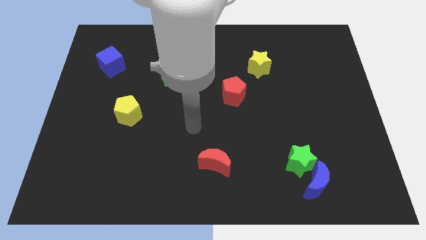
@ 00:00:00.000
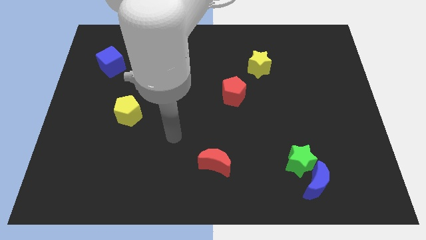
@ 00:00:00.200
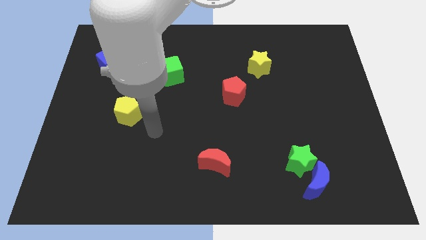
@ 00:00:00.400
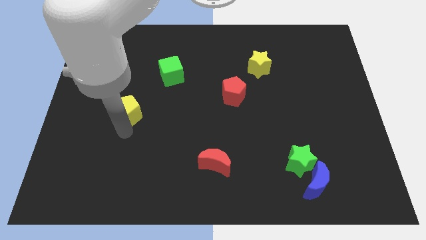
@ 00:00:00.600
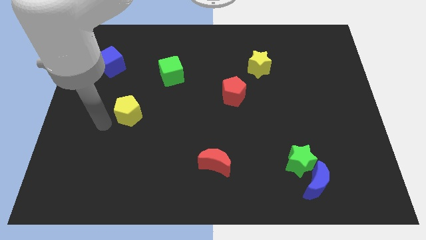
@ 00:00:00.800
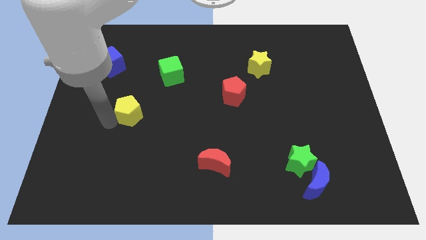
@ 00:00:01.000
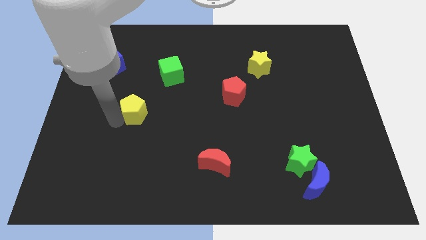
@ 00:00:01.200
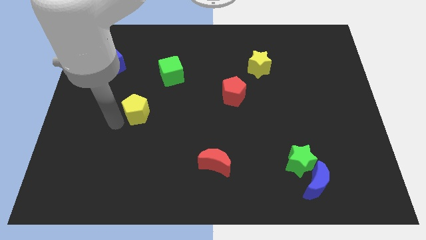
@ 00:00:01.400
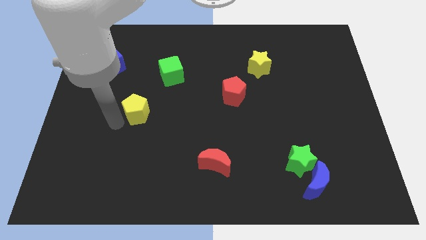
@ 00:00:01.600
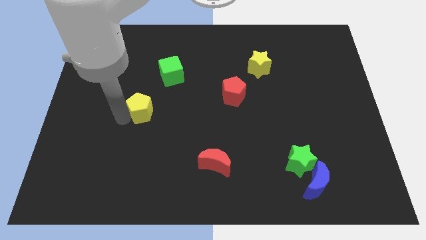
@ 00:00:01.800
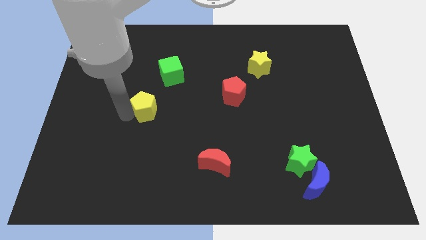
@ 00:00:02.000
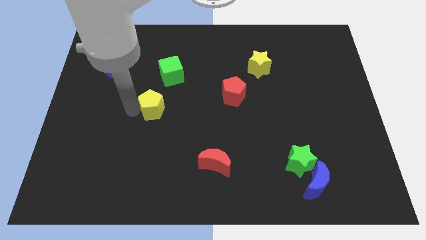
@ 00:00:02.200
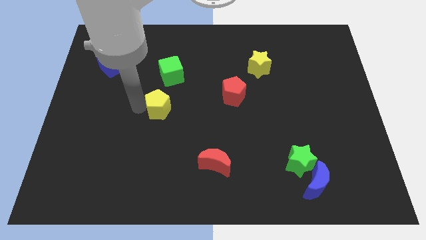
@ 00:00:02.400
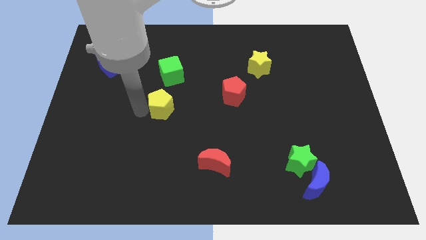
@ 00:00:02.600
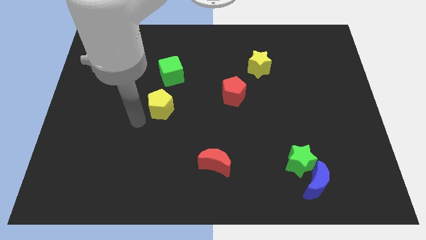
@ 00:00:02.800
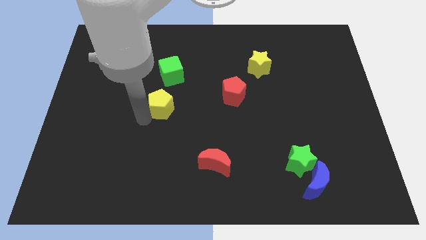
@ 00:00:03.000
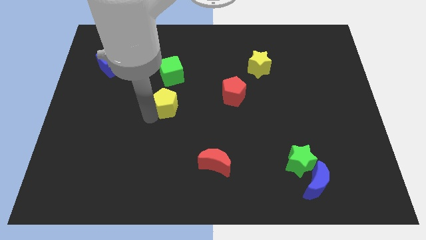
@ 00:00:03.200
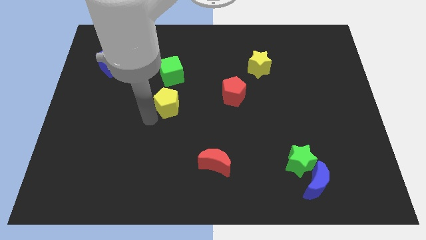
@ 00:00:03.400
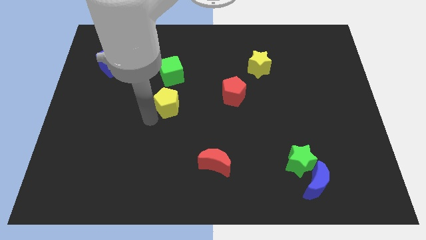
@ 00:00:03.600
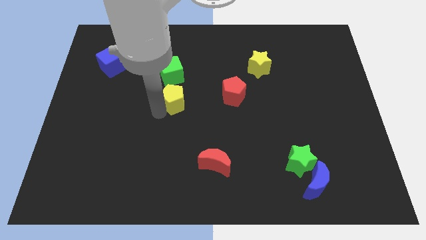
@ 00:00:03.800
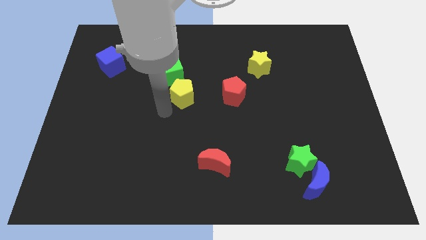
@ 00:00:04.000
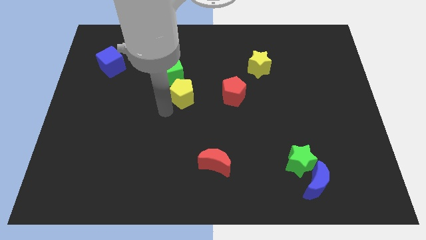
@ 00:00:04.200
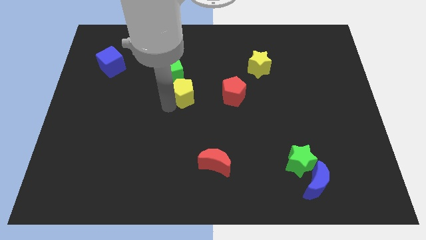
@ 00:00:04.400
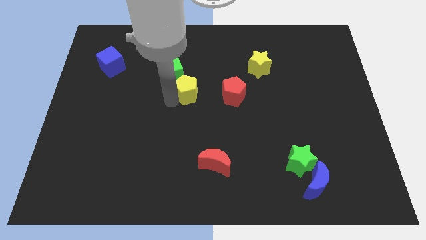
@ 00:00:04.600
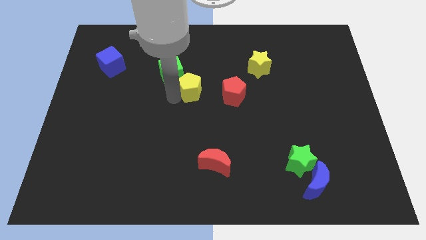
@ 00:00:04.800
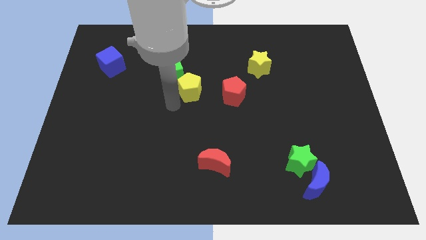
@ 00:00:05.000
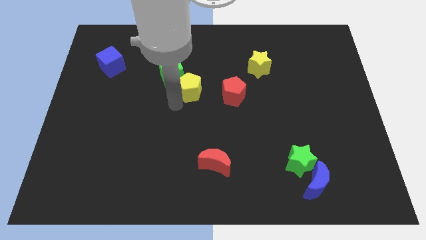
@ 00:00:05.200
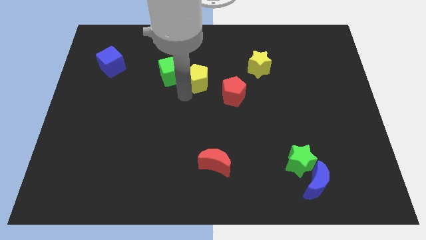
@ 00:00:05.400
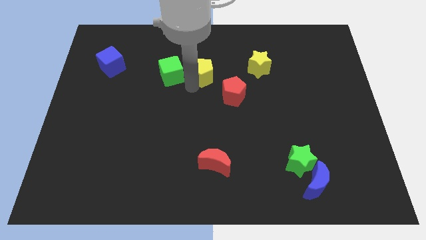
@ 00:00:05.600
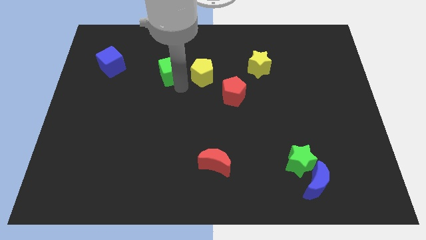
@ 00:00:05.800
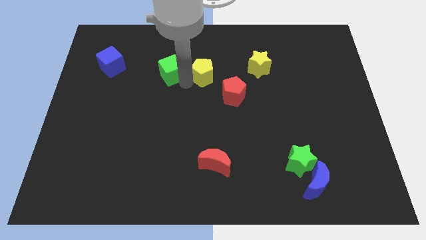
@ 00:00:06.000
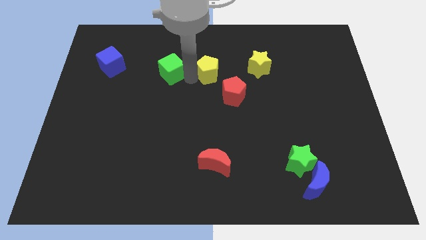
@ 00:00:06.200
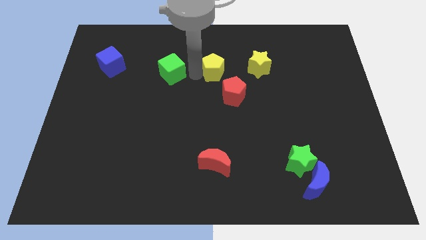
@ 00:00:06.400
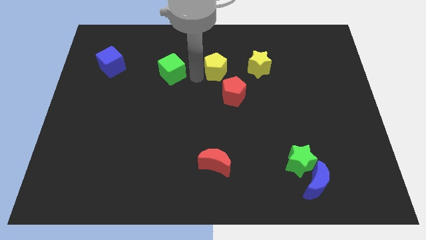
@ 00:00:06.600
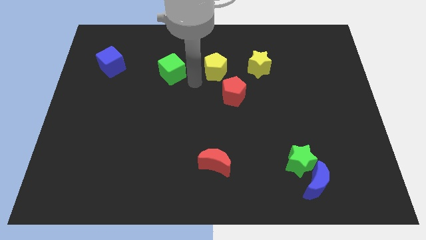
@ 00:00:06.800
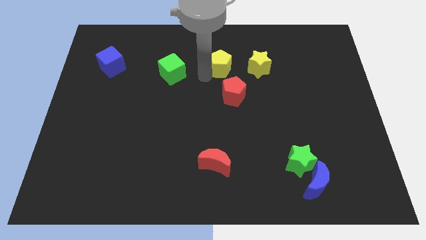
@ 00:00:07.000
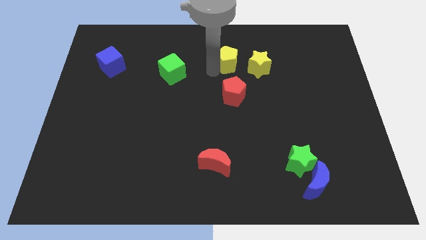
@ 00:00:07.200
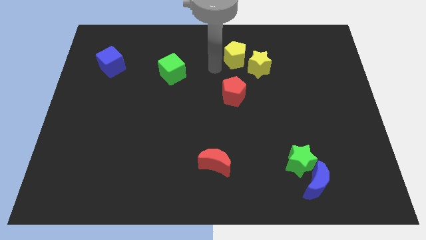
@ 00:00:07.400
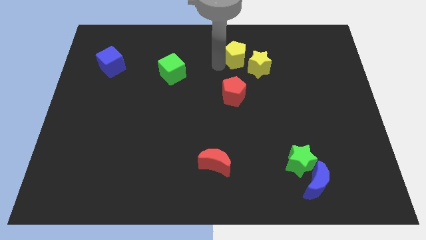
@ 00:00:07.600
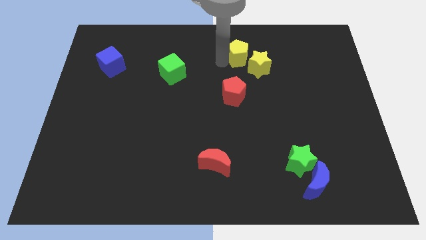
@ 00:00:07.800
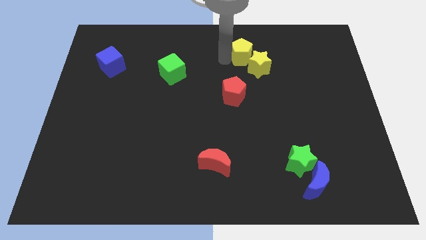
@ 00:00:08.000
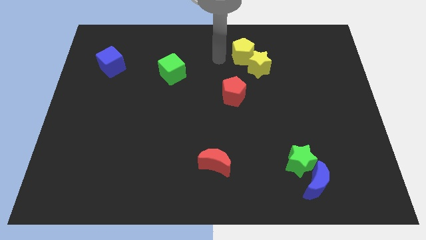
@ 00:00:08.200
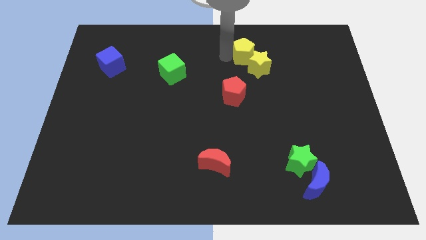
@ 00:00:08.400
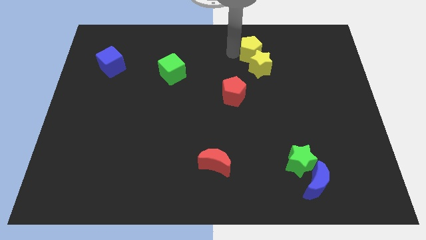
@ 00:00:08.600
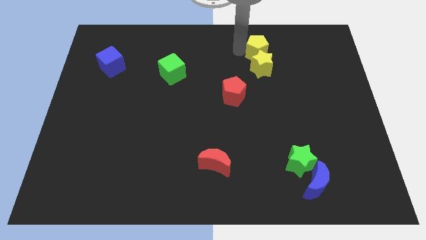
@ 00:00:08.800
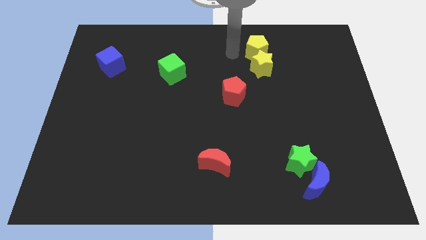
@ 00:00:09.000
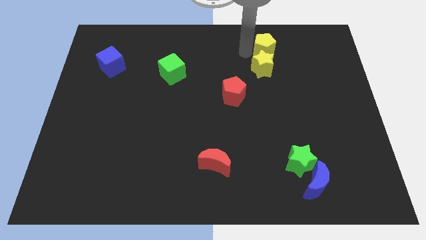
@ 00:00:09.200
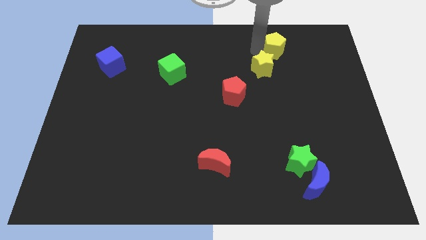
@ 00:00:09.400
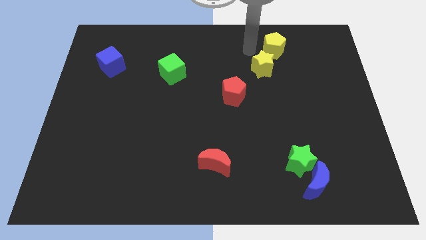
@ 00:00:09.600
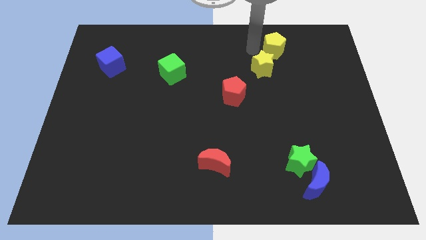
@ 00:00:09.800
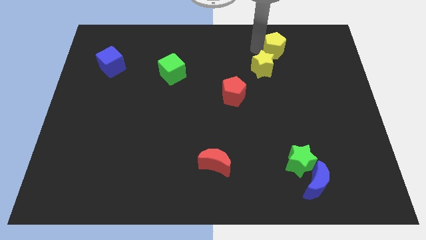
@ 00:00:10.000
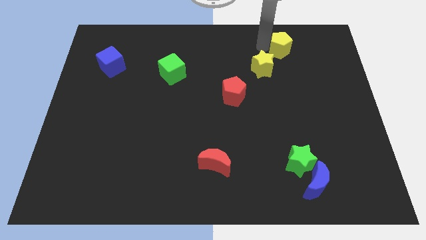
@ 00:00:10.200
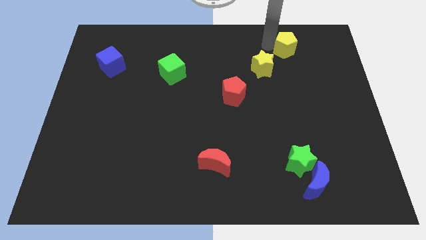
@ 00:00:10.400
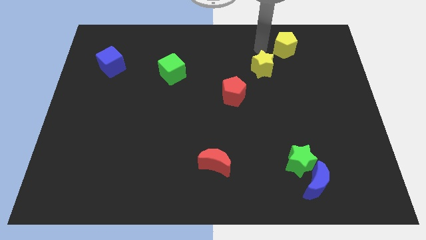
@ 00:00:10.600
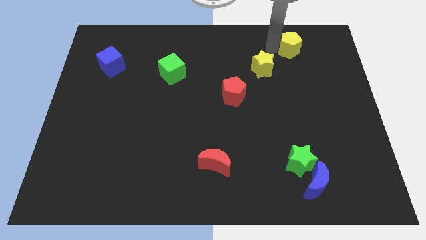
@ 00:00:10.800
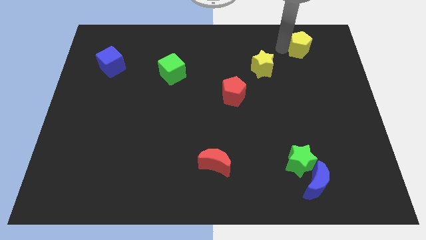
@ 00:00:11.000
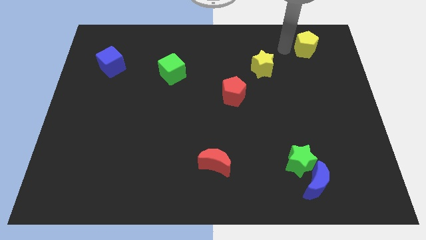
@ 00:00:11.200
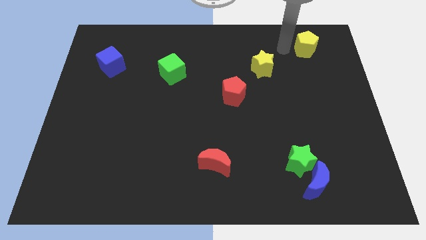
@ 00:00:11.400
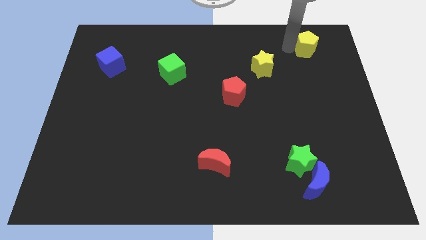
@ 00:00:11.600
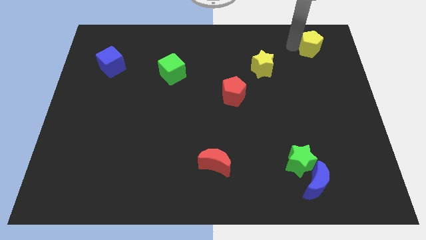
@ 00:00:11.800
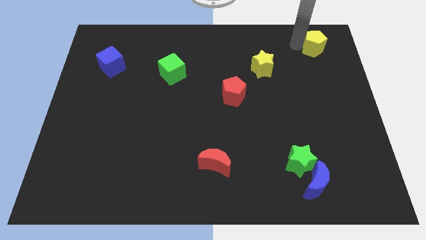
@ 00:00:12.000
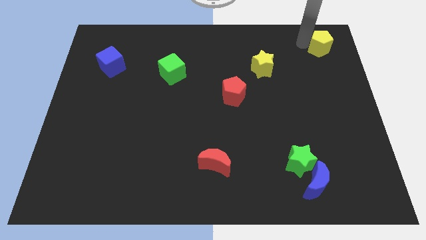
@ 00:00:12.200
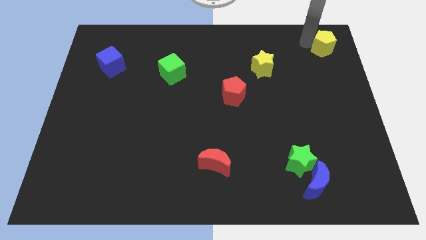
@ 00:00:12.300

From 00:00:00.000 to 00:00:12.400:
push the yellow pentagon to the top right corner

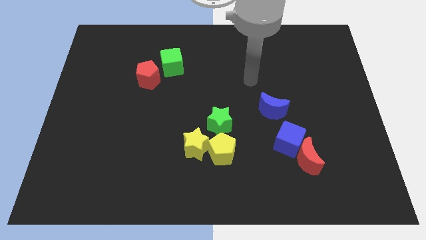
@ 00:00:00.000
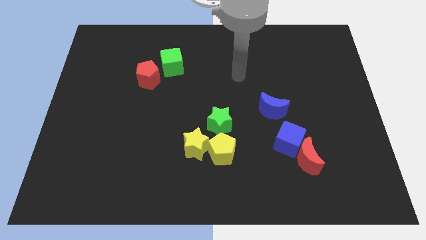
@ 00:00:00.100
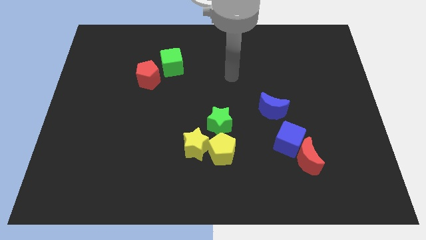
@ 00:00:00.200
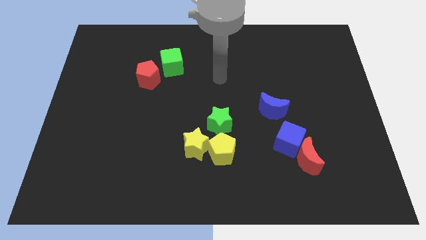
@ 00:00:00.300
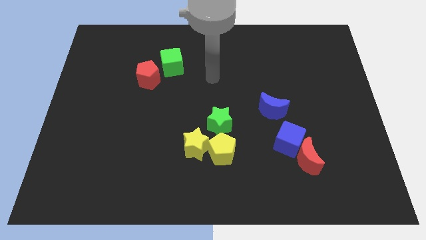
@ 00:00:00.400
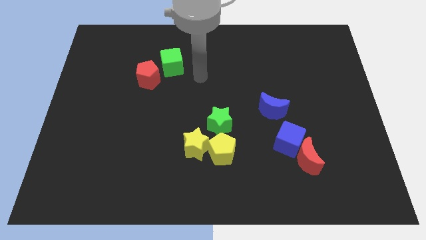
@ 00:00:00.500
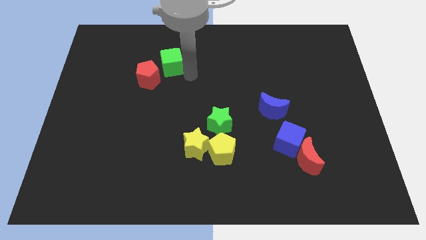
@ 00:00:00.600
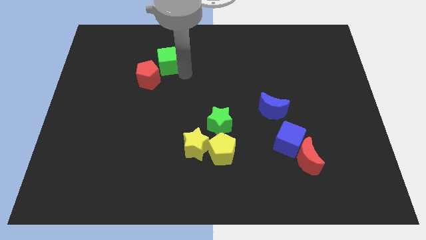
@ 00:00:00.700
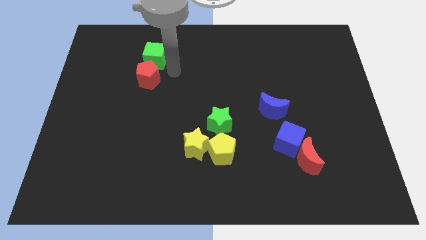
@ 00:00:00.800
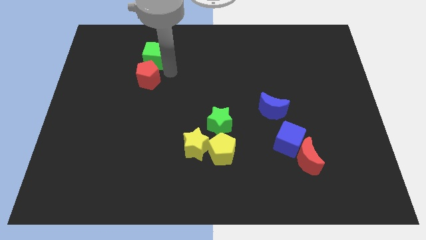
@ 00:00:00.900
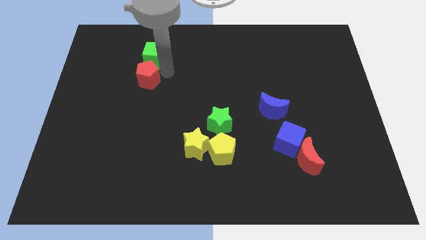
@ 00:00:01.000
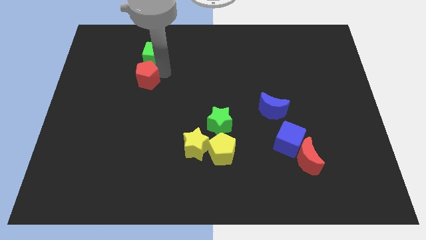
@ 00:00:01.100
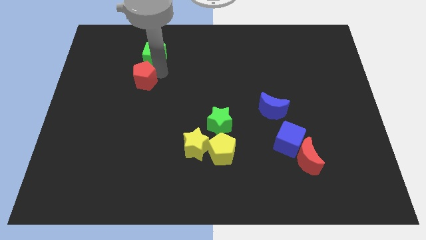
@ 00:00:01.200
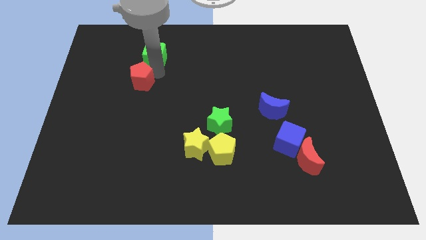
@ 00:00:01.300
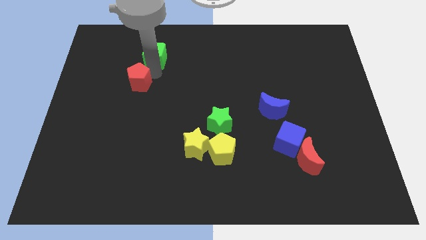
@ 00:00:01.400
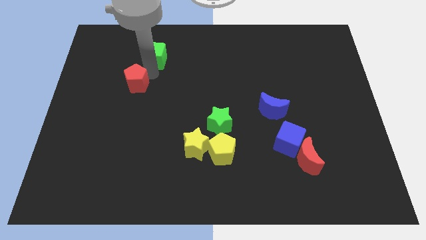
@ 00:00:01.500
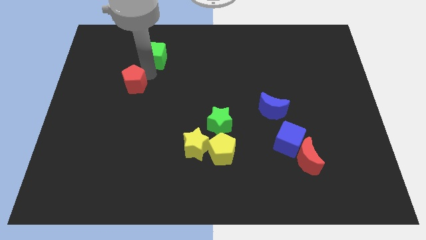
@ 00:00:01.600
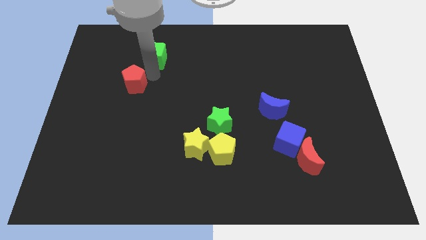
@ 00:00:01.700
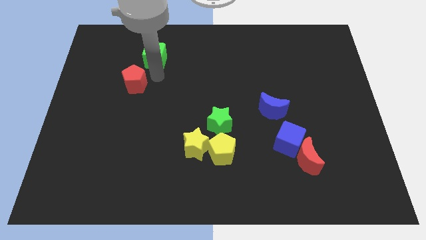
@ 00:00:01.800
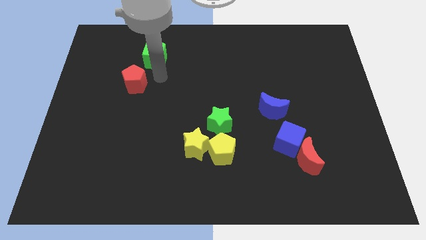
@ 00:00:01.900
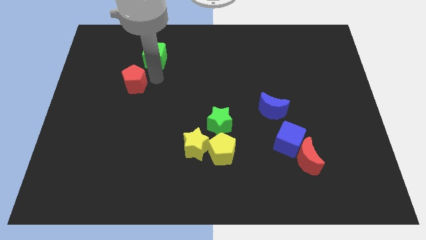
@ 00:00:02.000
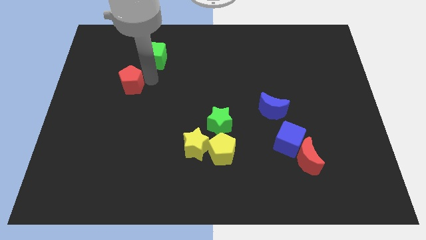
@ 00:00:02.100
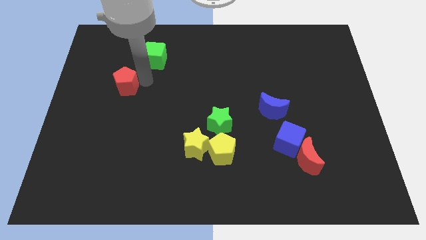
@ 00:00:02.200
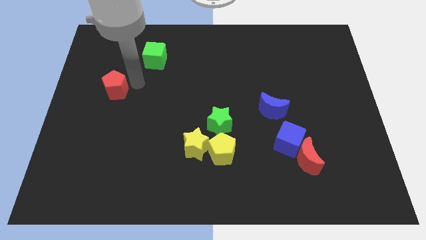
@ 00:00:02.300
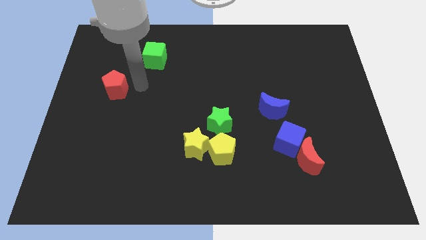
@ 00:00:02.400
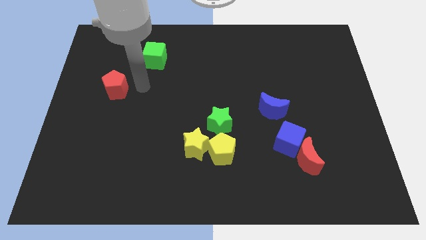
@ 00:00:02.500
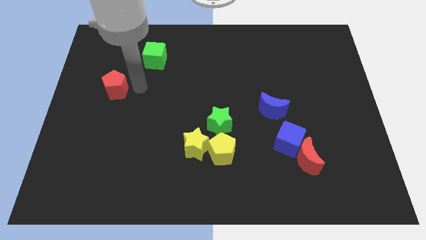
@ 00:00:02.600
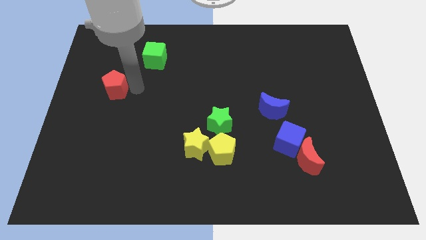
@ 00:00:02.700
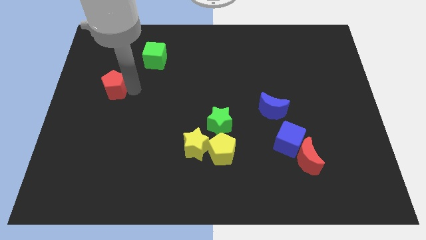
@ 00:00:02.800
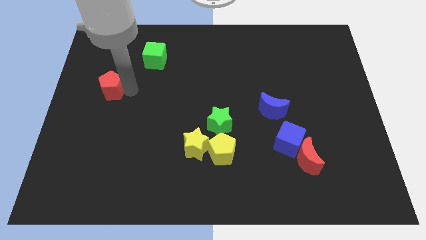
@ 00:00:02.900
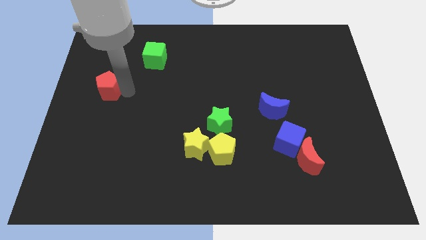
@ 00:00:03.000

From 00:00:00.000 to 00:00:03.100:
put the red pentagon to the center left
